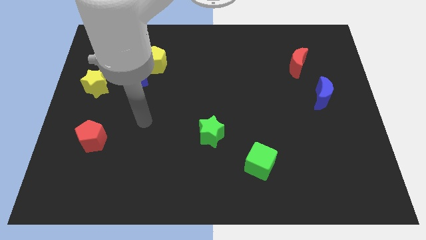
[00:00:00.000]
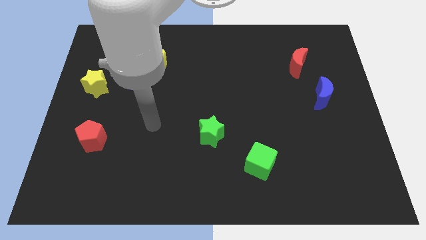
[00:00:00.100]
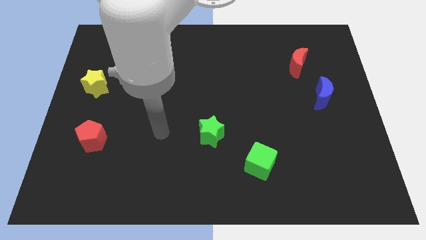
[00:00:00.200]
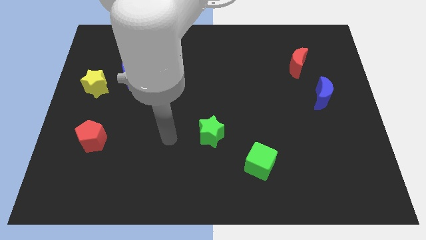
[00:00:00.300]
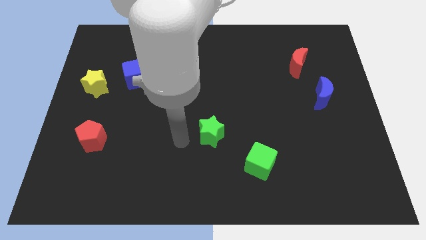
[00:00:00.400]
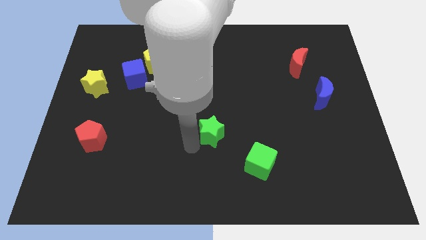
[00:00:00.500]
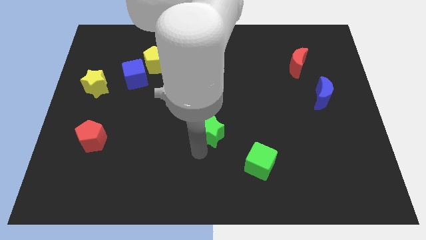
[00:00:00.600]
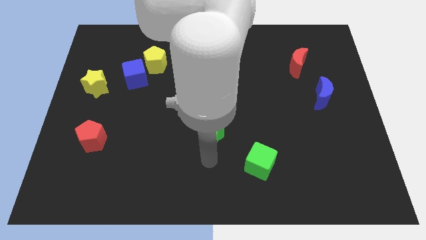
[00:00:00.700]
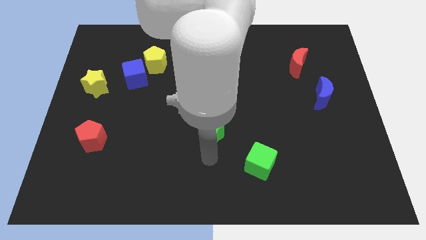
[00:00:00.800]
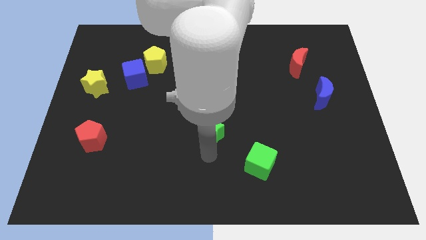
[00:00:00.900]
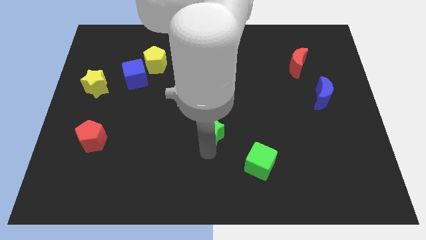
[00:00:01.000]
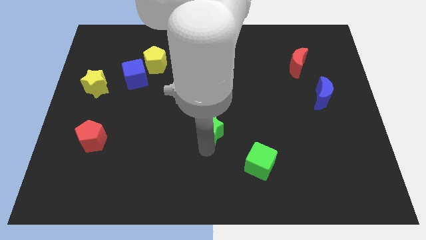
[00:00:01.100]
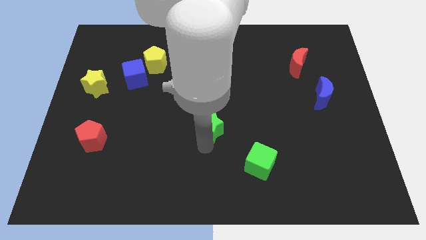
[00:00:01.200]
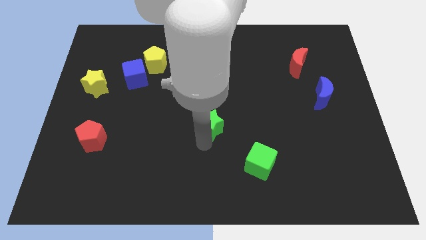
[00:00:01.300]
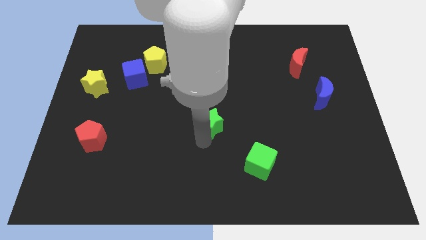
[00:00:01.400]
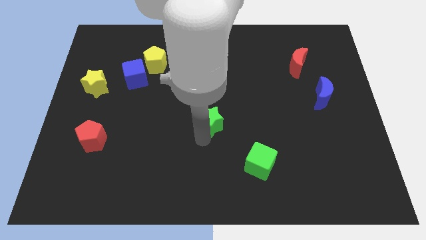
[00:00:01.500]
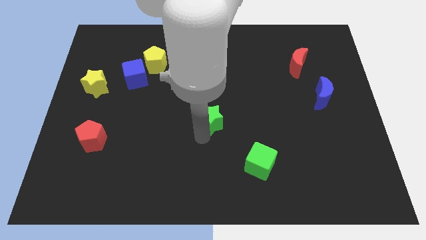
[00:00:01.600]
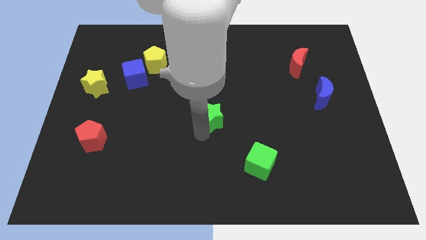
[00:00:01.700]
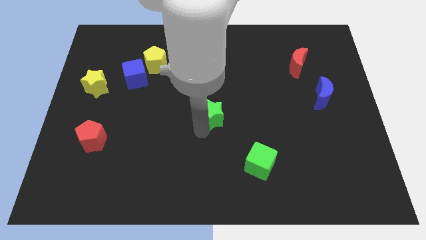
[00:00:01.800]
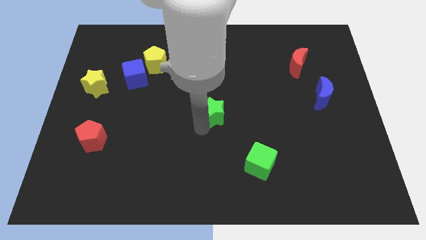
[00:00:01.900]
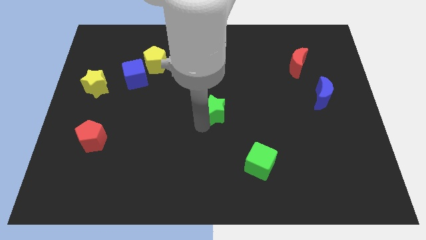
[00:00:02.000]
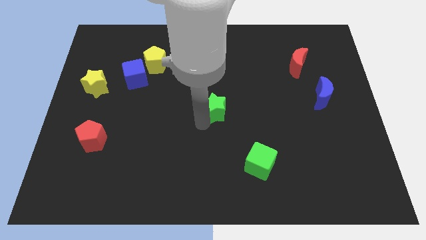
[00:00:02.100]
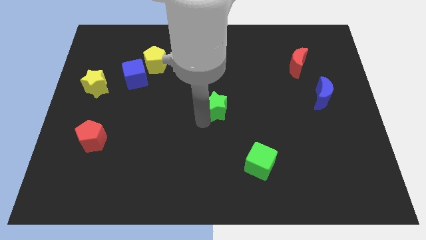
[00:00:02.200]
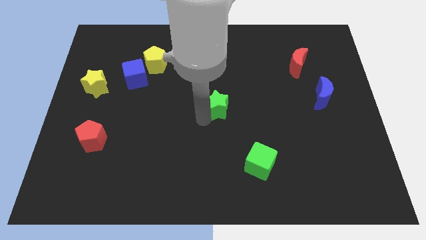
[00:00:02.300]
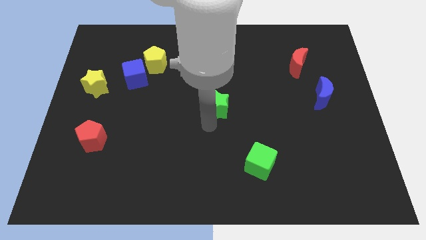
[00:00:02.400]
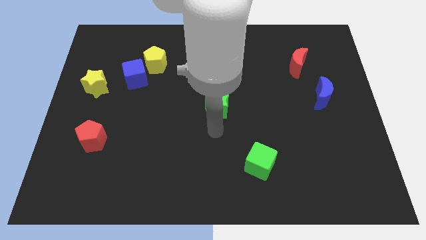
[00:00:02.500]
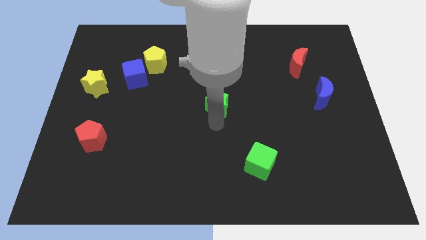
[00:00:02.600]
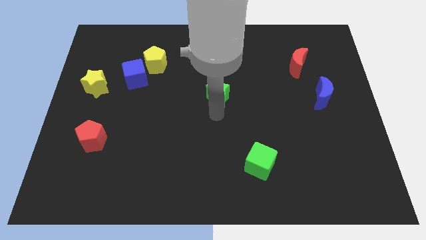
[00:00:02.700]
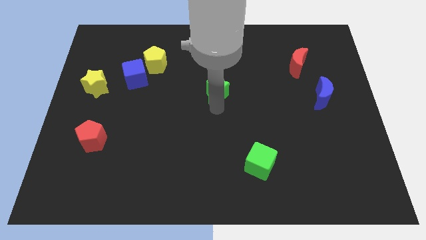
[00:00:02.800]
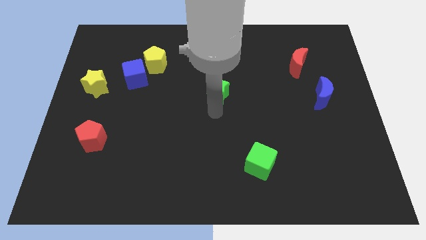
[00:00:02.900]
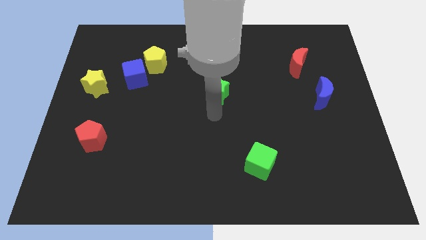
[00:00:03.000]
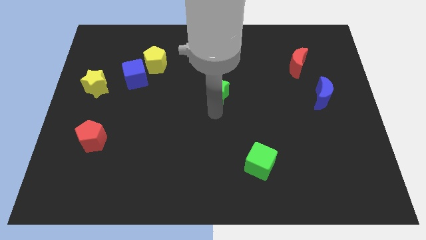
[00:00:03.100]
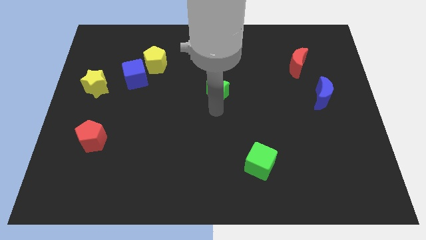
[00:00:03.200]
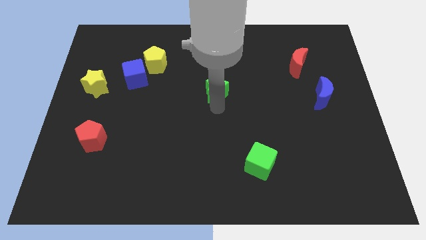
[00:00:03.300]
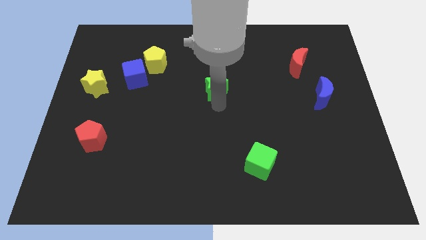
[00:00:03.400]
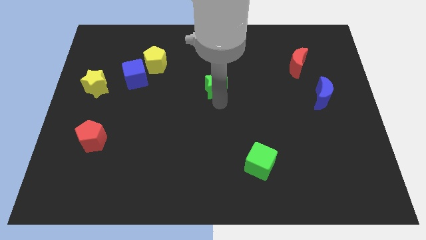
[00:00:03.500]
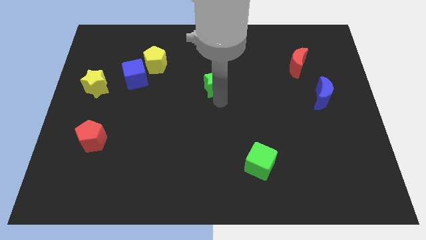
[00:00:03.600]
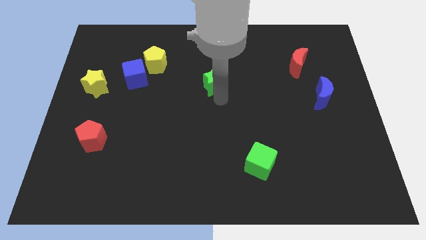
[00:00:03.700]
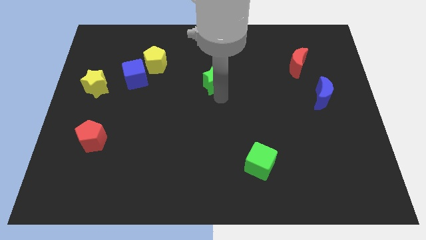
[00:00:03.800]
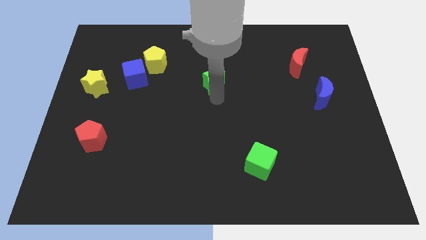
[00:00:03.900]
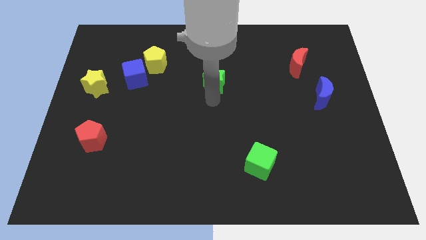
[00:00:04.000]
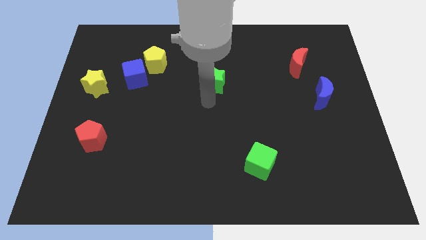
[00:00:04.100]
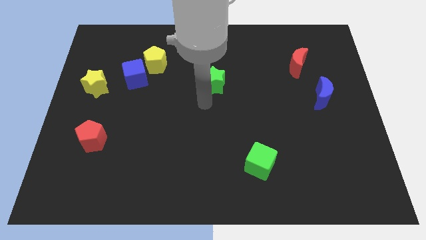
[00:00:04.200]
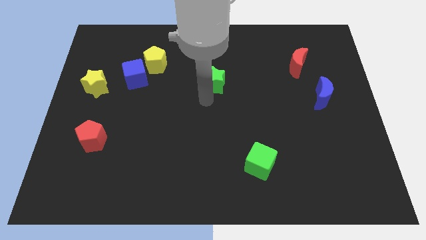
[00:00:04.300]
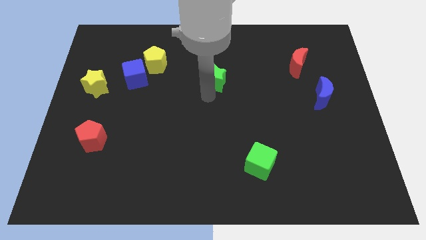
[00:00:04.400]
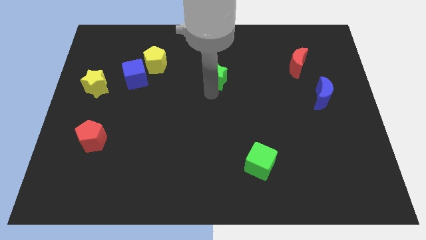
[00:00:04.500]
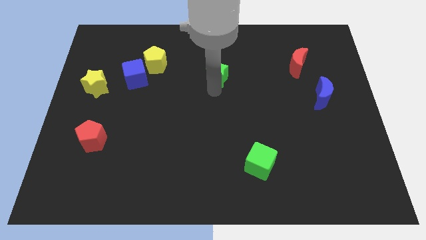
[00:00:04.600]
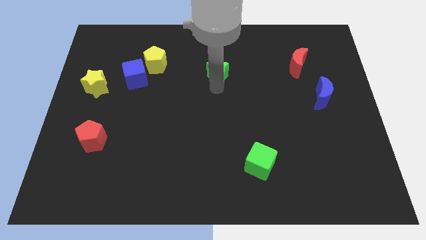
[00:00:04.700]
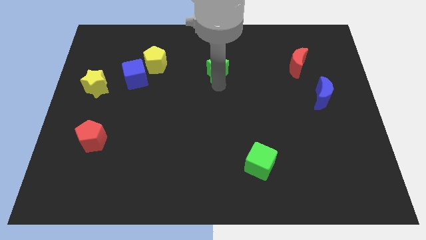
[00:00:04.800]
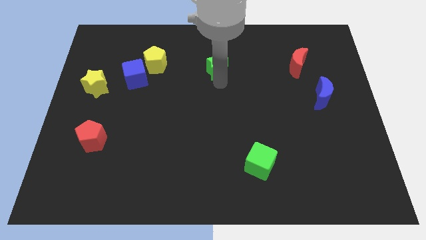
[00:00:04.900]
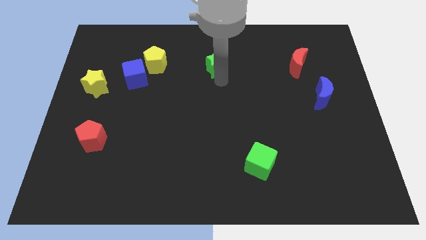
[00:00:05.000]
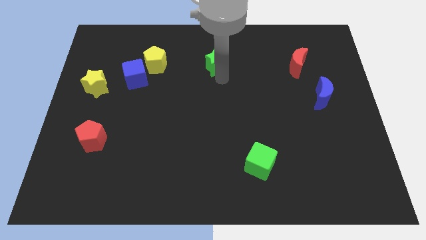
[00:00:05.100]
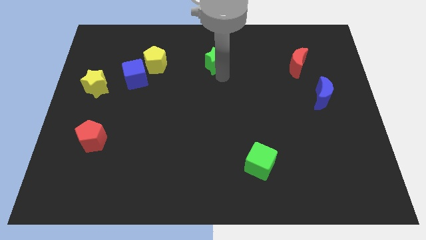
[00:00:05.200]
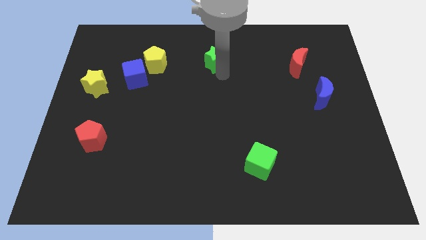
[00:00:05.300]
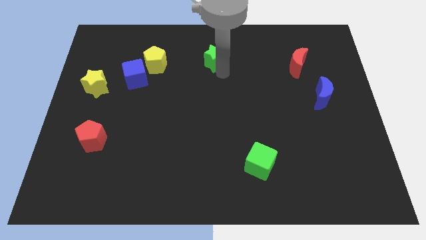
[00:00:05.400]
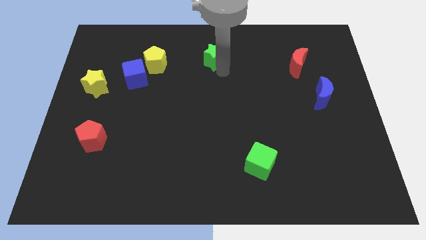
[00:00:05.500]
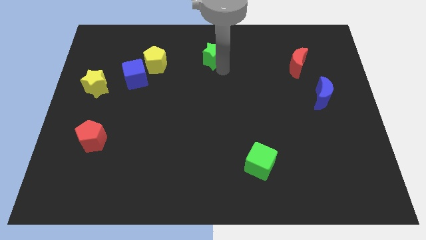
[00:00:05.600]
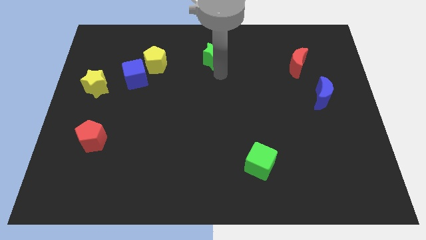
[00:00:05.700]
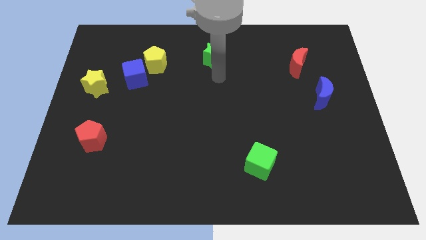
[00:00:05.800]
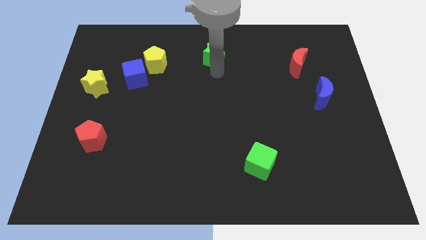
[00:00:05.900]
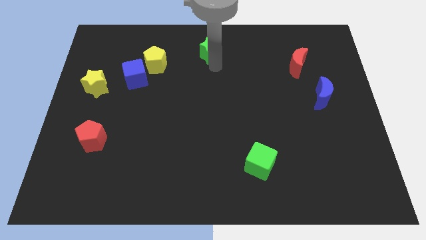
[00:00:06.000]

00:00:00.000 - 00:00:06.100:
put the green star to the top
